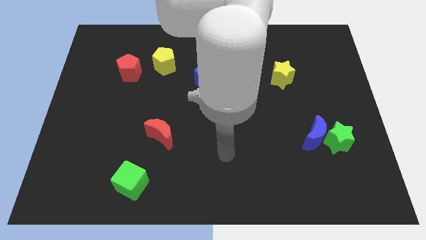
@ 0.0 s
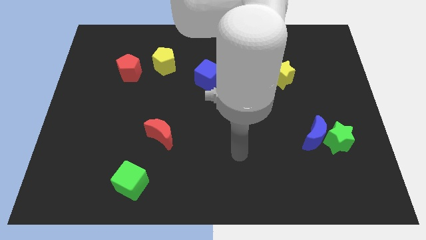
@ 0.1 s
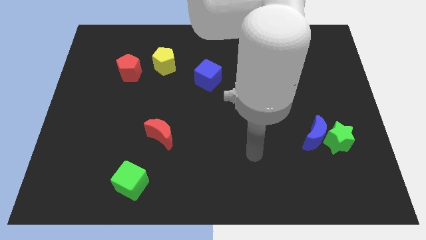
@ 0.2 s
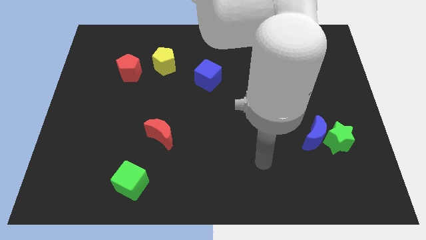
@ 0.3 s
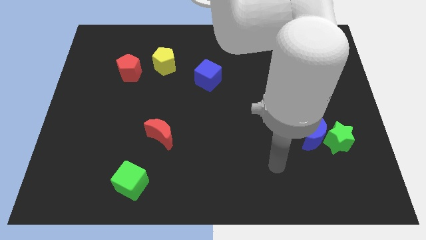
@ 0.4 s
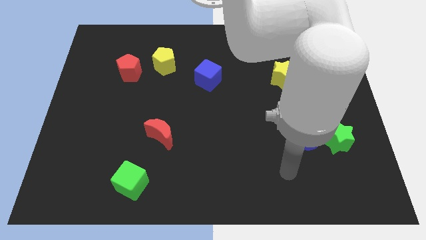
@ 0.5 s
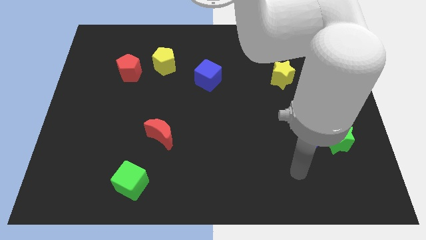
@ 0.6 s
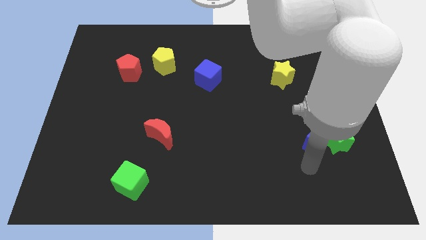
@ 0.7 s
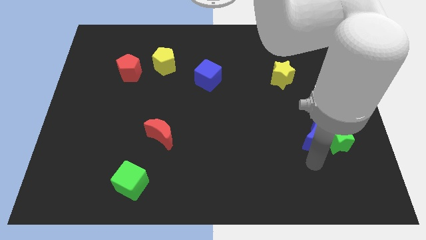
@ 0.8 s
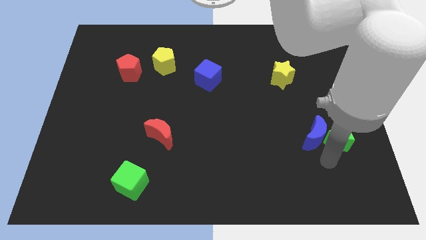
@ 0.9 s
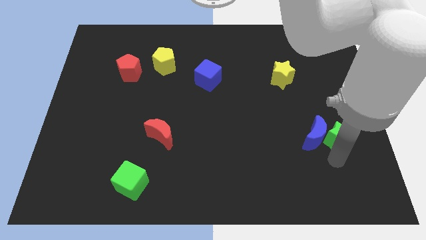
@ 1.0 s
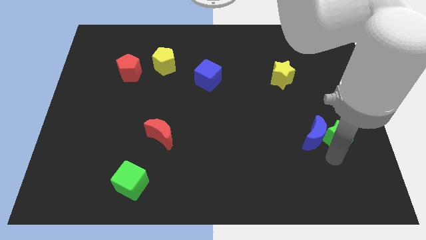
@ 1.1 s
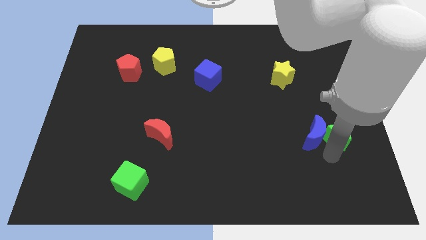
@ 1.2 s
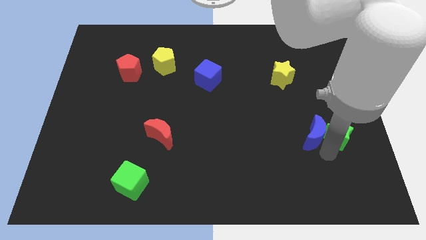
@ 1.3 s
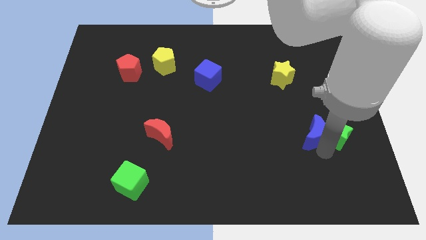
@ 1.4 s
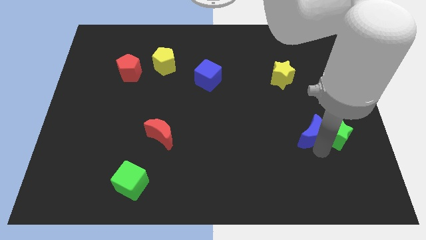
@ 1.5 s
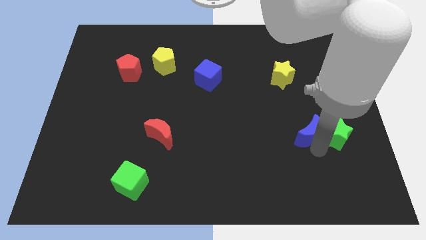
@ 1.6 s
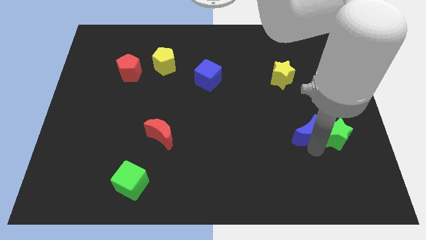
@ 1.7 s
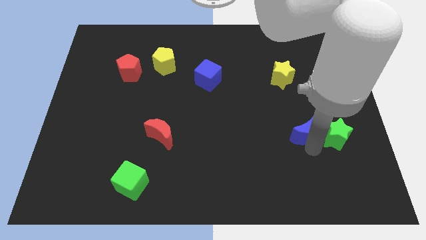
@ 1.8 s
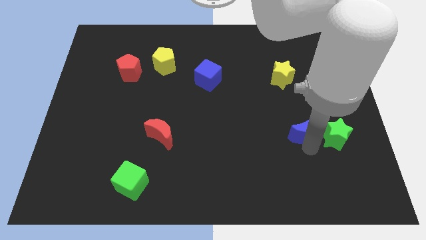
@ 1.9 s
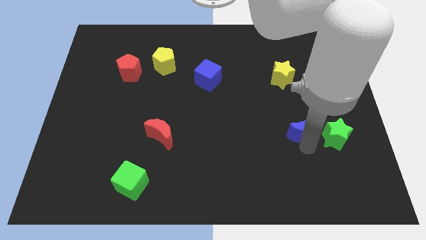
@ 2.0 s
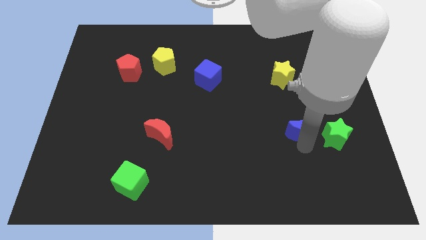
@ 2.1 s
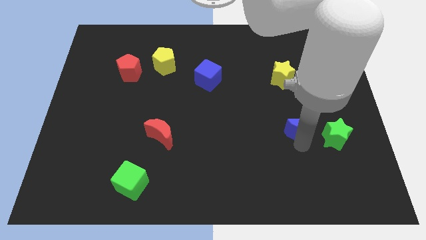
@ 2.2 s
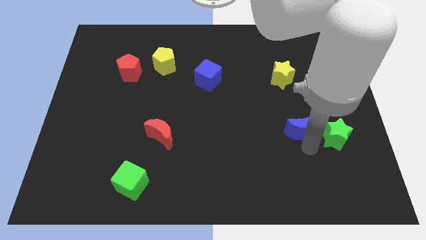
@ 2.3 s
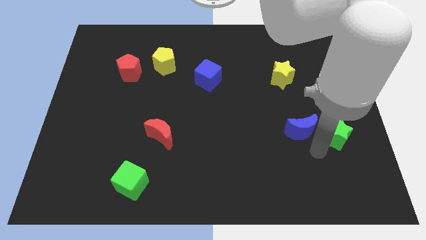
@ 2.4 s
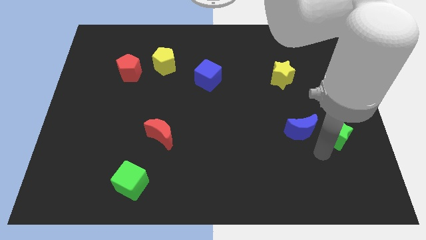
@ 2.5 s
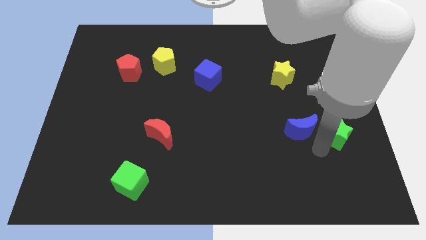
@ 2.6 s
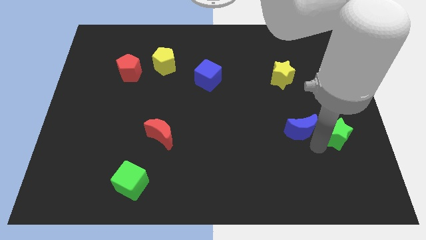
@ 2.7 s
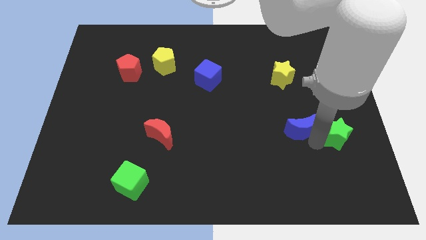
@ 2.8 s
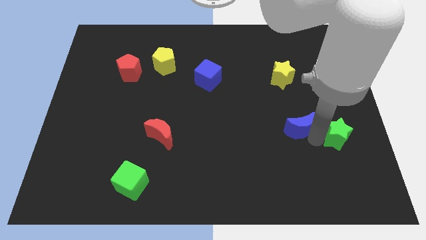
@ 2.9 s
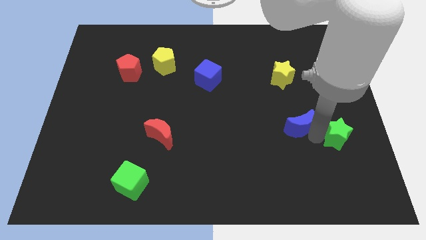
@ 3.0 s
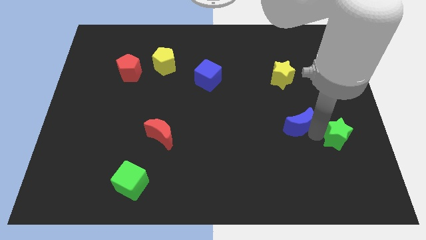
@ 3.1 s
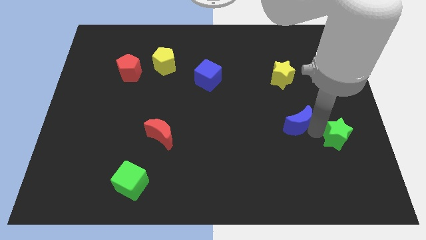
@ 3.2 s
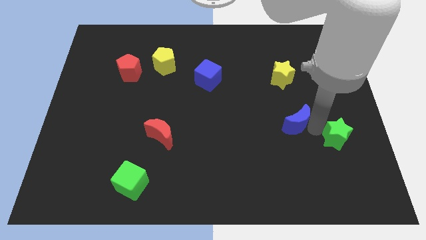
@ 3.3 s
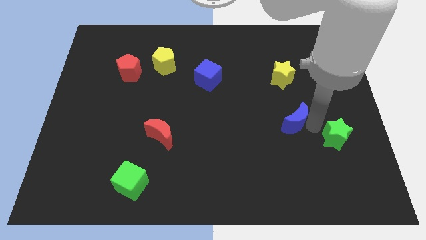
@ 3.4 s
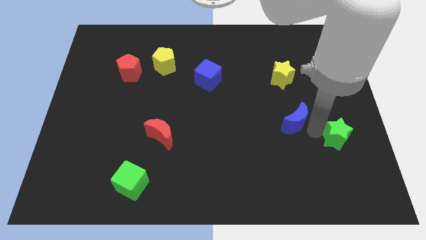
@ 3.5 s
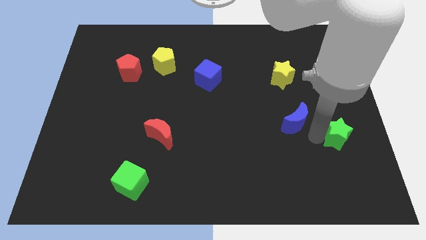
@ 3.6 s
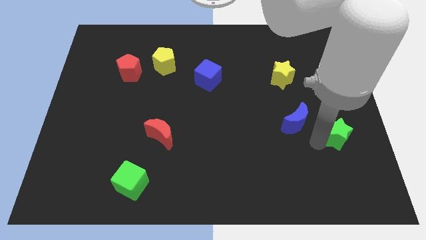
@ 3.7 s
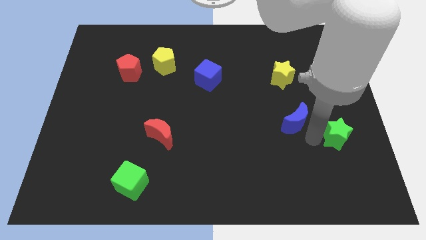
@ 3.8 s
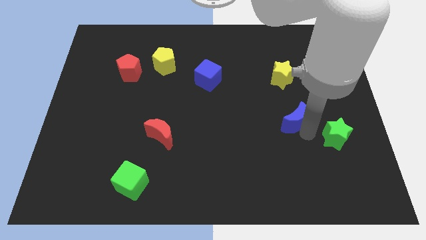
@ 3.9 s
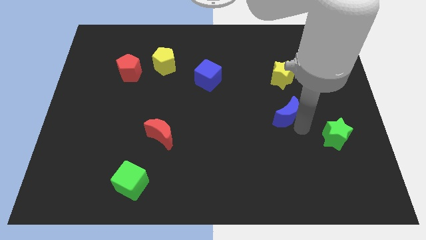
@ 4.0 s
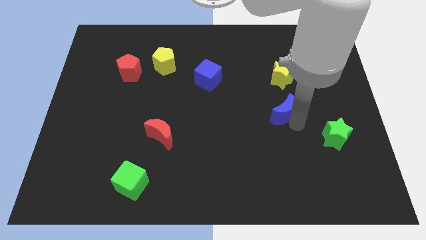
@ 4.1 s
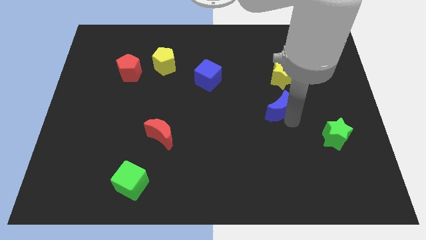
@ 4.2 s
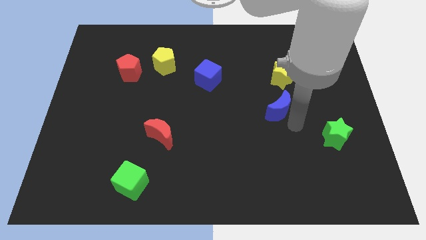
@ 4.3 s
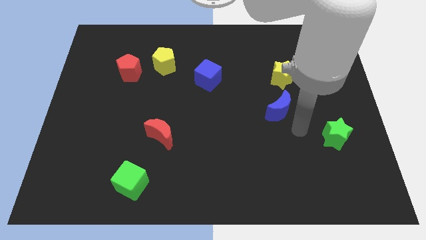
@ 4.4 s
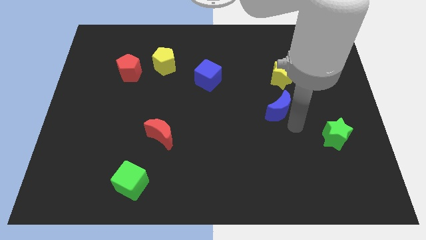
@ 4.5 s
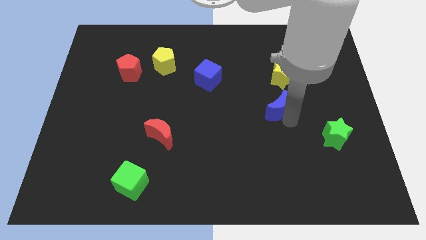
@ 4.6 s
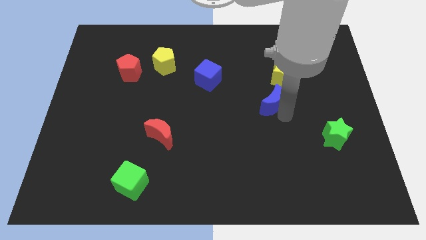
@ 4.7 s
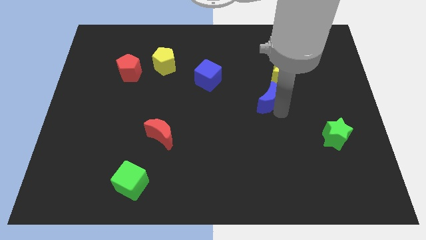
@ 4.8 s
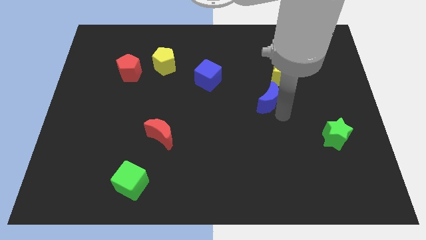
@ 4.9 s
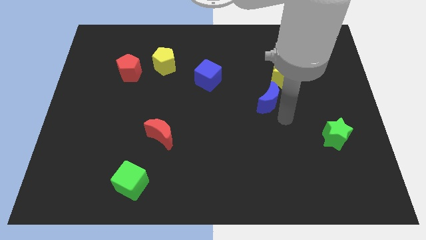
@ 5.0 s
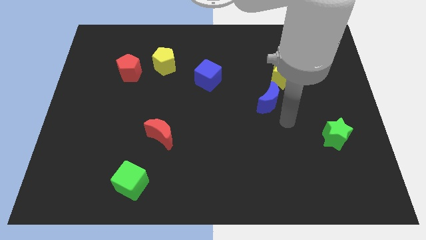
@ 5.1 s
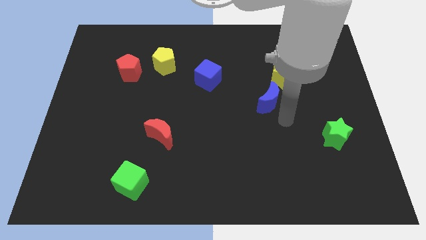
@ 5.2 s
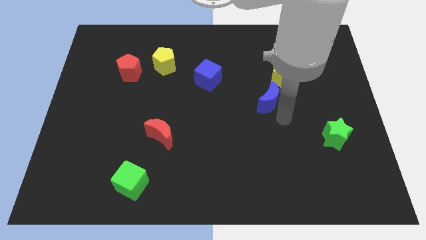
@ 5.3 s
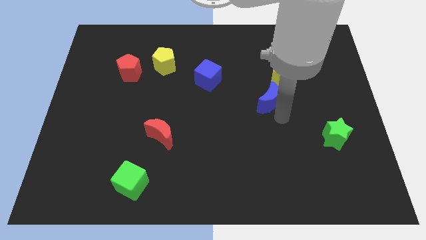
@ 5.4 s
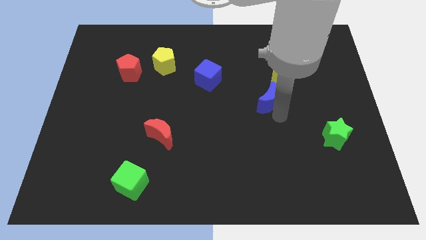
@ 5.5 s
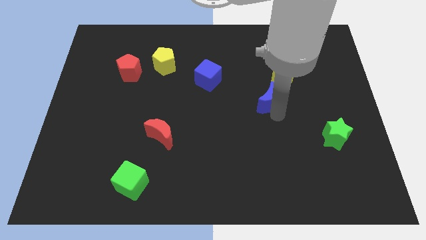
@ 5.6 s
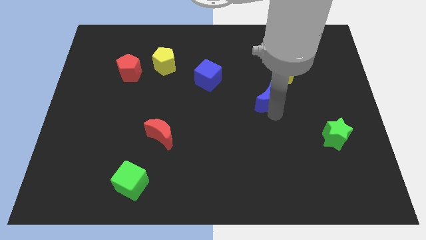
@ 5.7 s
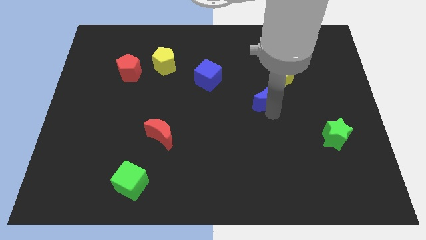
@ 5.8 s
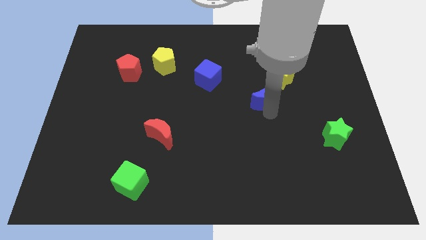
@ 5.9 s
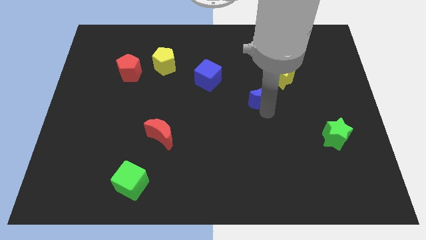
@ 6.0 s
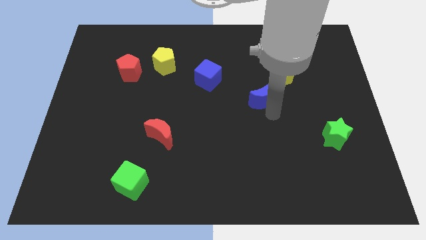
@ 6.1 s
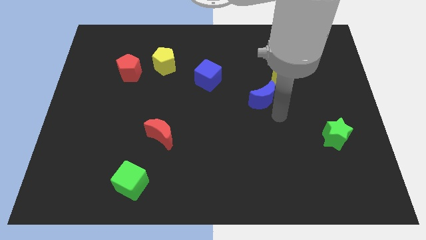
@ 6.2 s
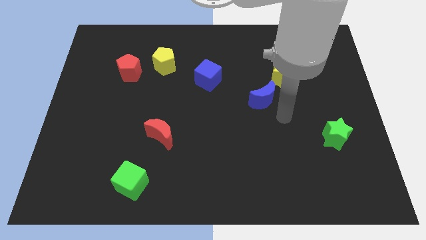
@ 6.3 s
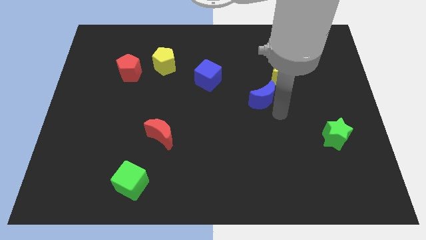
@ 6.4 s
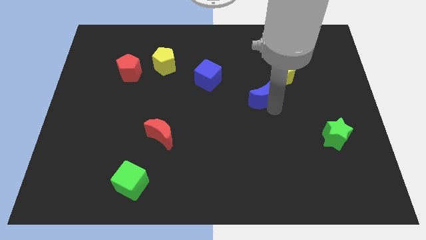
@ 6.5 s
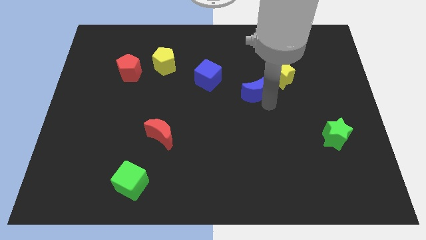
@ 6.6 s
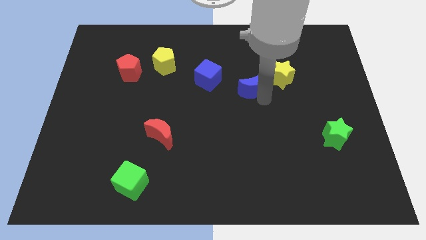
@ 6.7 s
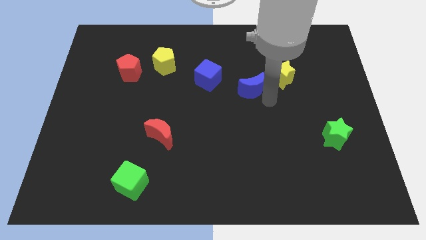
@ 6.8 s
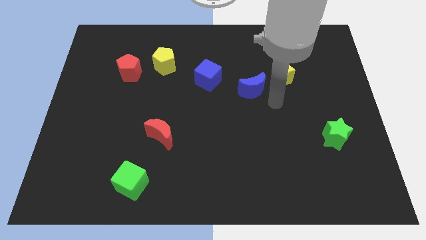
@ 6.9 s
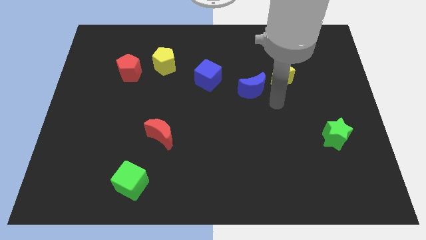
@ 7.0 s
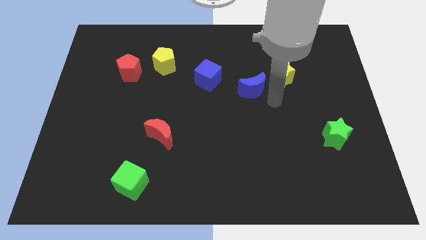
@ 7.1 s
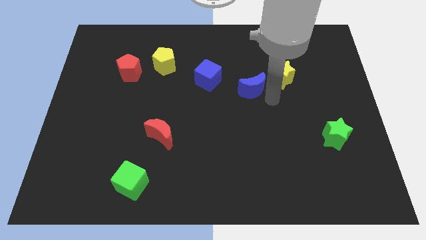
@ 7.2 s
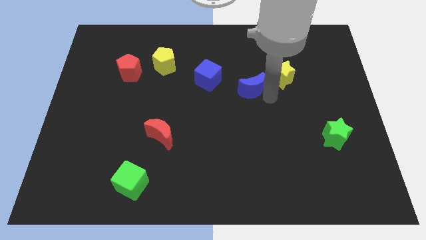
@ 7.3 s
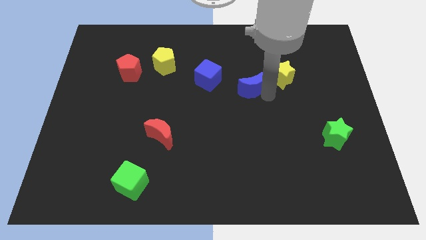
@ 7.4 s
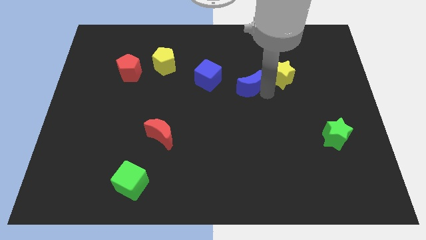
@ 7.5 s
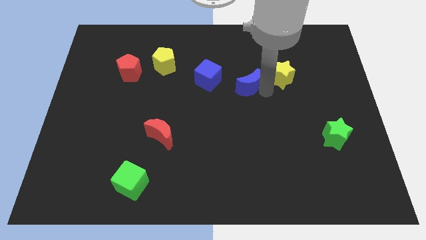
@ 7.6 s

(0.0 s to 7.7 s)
move the blue moon diagonally up and to the left

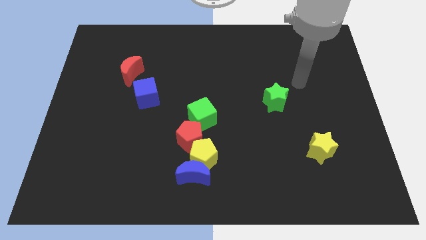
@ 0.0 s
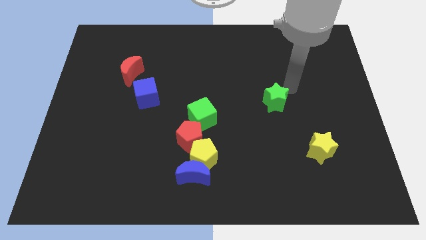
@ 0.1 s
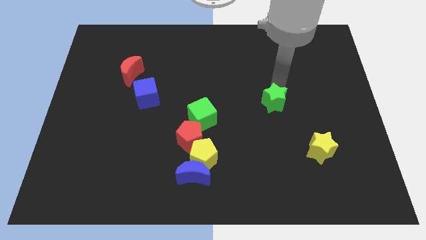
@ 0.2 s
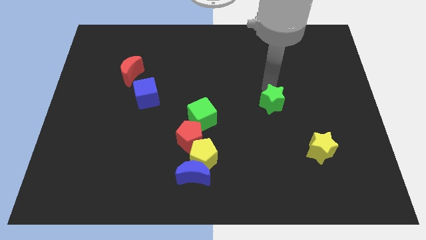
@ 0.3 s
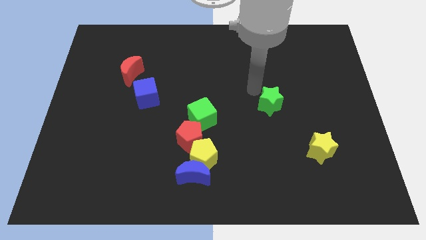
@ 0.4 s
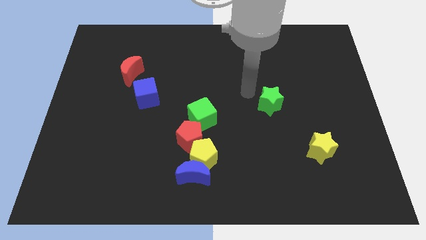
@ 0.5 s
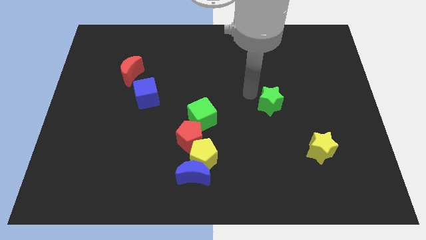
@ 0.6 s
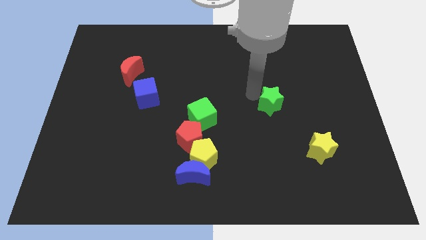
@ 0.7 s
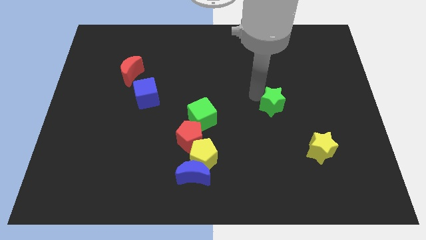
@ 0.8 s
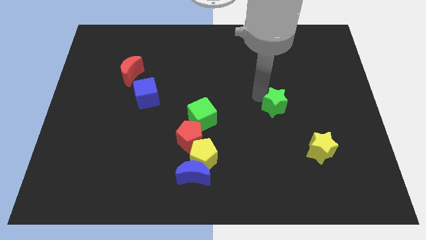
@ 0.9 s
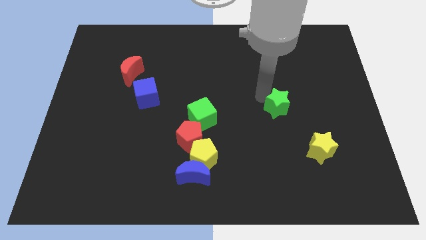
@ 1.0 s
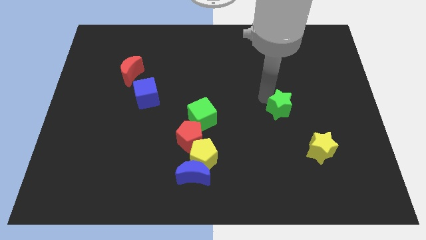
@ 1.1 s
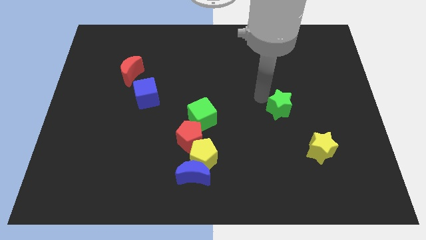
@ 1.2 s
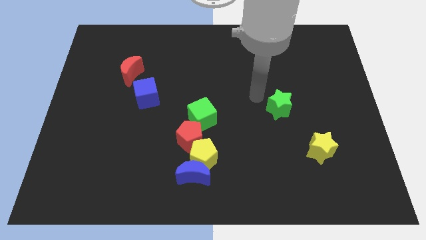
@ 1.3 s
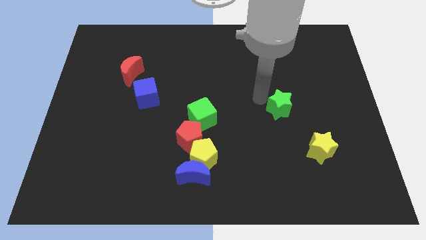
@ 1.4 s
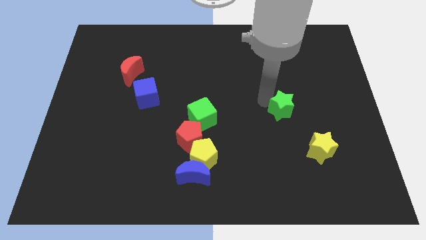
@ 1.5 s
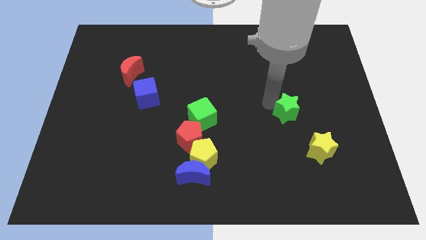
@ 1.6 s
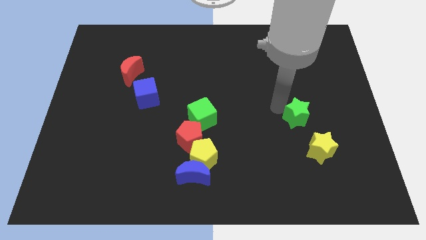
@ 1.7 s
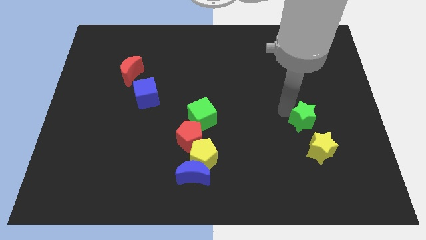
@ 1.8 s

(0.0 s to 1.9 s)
push the green star downwards and right a bit
